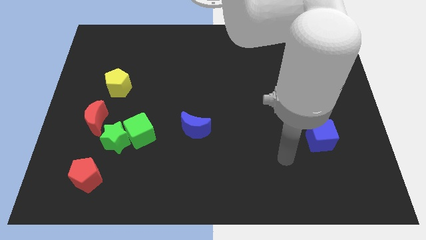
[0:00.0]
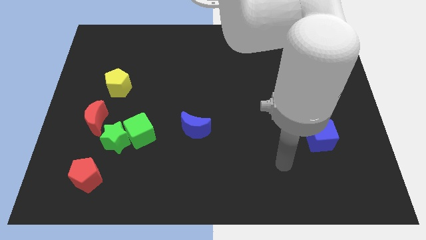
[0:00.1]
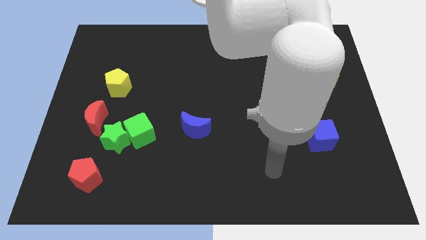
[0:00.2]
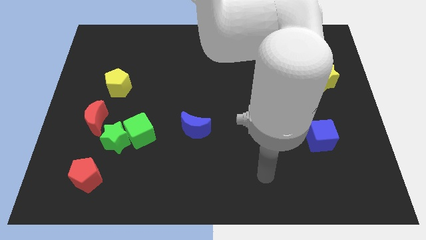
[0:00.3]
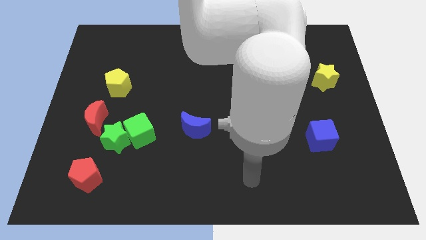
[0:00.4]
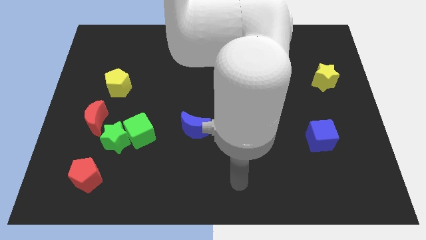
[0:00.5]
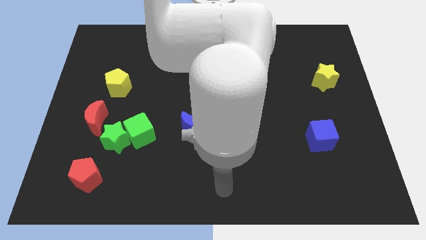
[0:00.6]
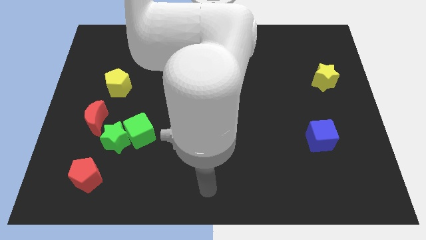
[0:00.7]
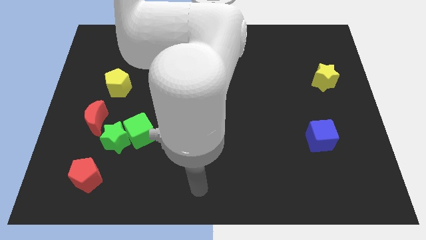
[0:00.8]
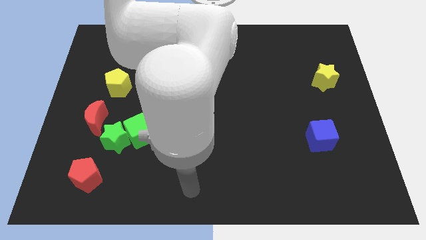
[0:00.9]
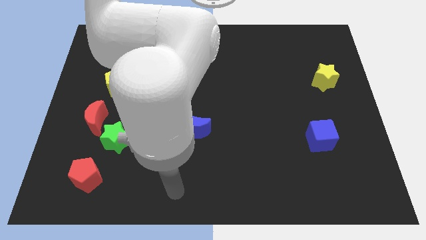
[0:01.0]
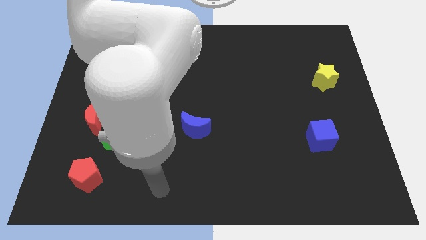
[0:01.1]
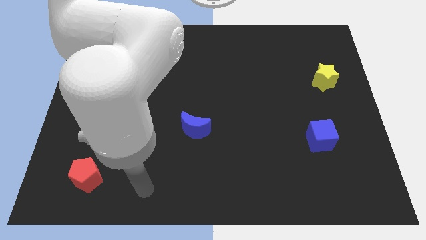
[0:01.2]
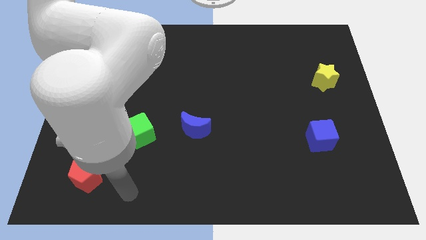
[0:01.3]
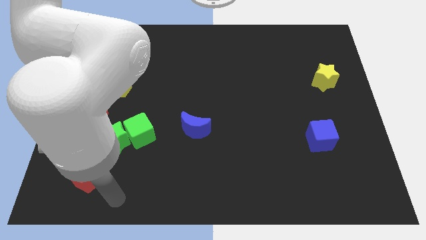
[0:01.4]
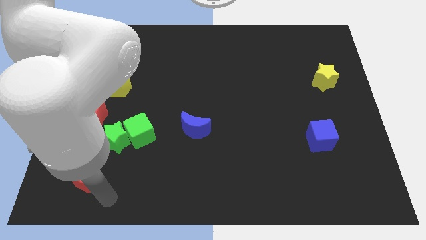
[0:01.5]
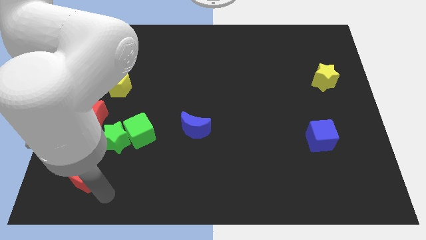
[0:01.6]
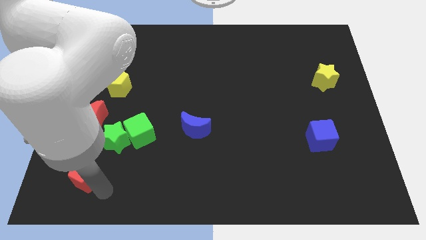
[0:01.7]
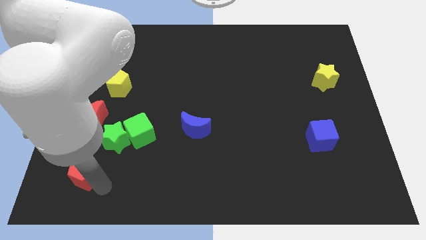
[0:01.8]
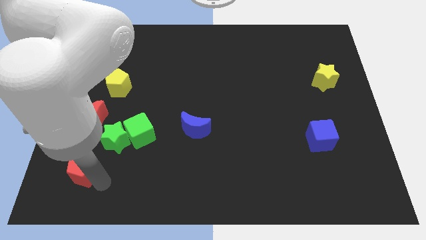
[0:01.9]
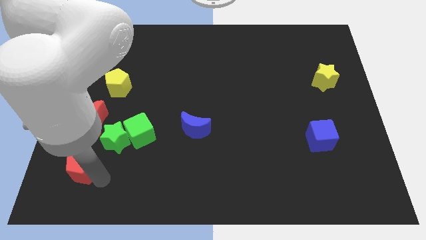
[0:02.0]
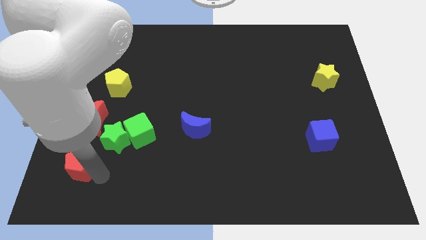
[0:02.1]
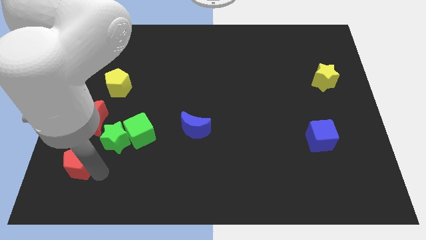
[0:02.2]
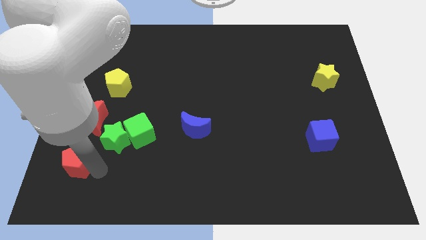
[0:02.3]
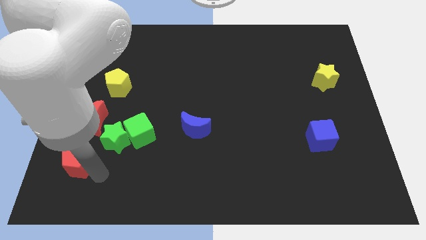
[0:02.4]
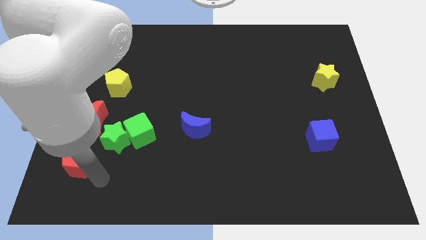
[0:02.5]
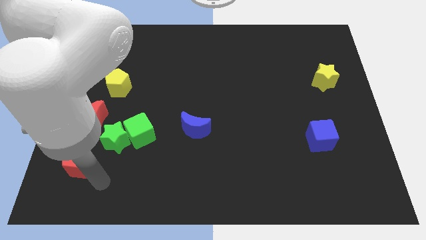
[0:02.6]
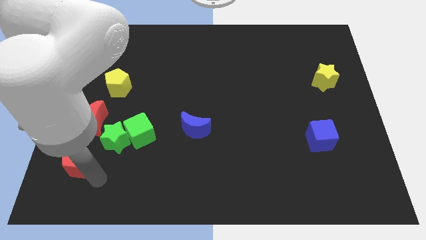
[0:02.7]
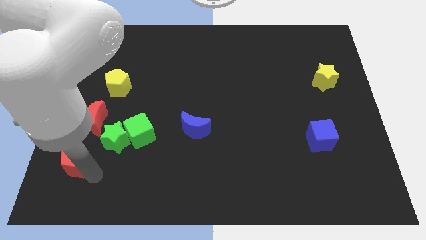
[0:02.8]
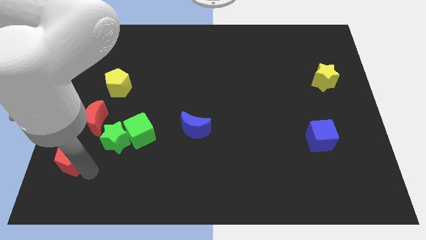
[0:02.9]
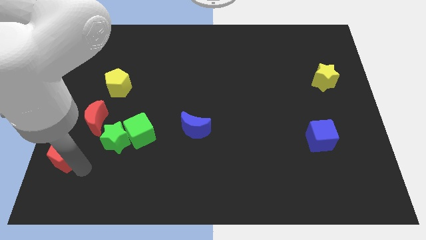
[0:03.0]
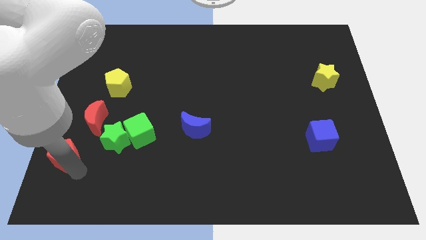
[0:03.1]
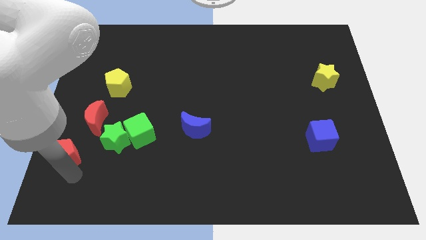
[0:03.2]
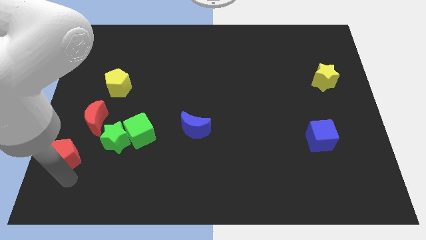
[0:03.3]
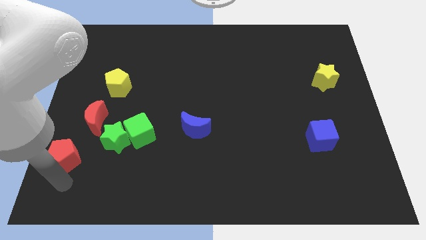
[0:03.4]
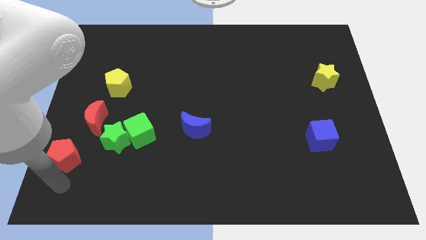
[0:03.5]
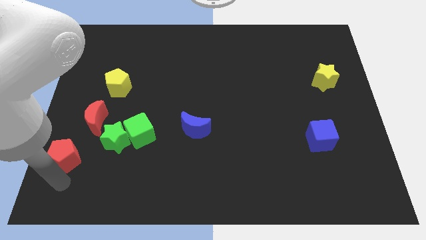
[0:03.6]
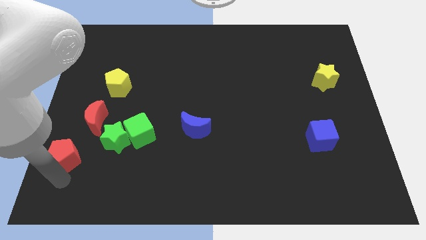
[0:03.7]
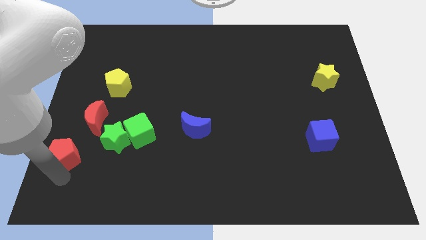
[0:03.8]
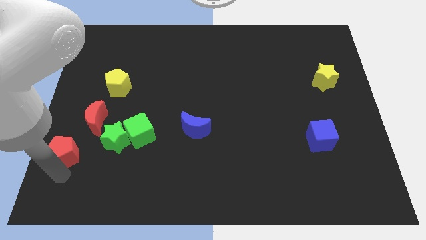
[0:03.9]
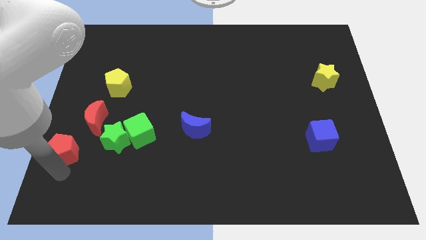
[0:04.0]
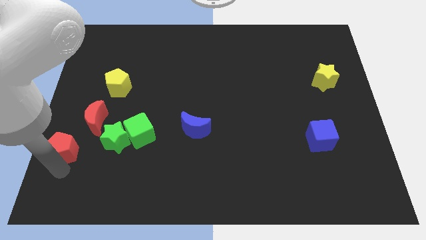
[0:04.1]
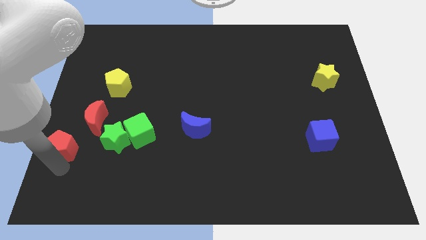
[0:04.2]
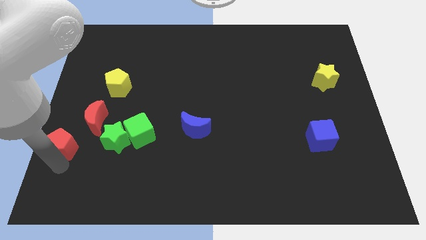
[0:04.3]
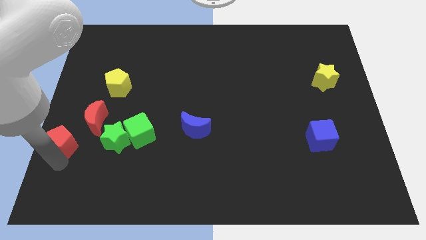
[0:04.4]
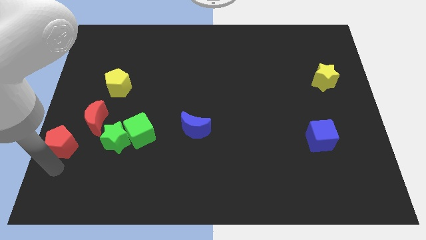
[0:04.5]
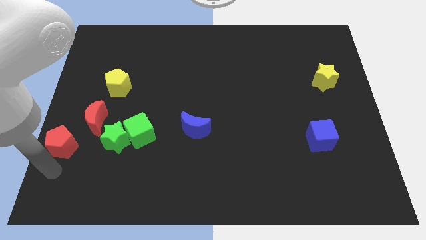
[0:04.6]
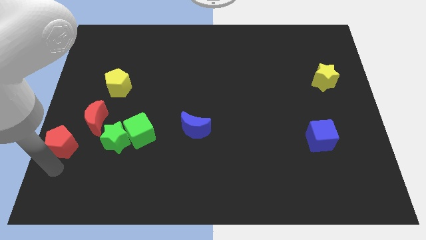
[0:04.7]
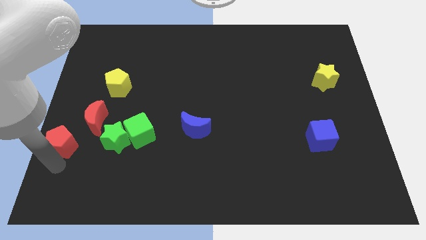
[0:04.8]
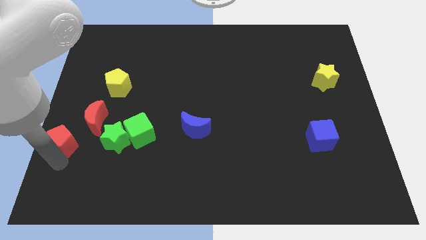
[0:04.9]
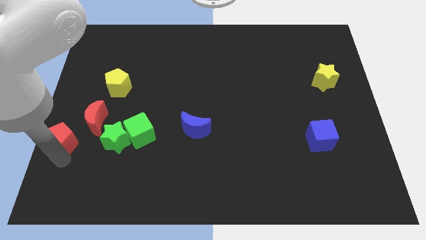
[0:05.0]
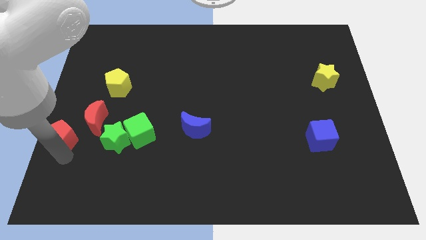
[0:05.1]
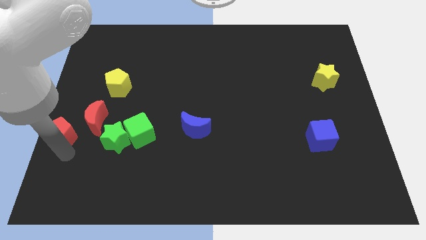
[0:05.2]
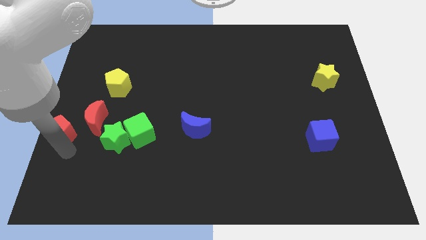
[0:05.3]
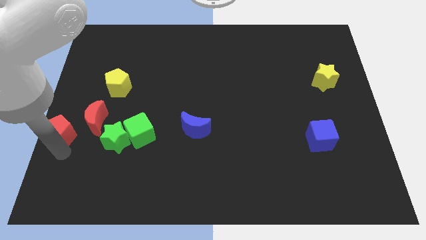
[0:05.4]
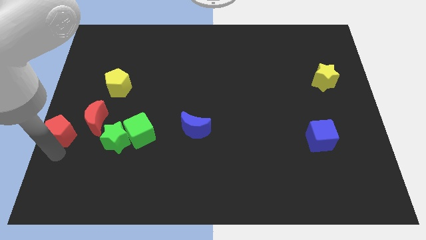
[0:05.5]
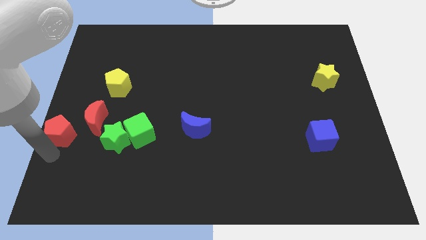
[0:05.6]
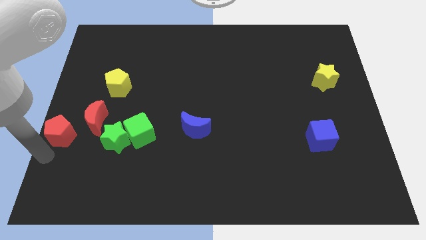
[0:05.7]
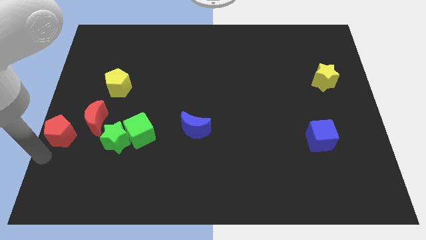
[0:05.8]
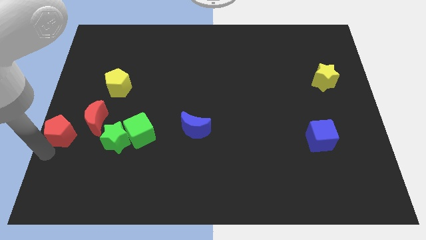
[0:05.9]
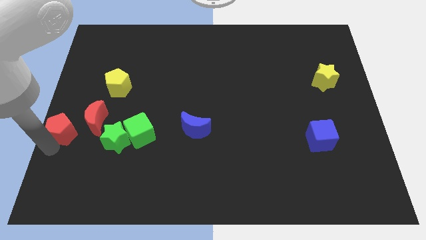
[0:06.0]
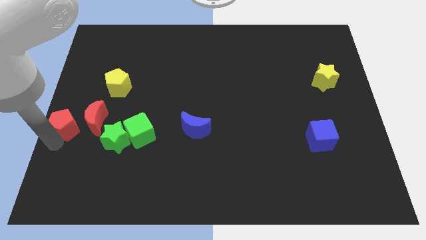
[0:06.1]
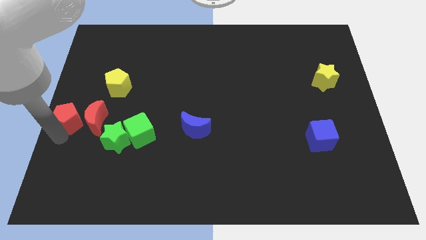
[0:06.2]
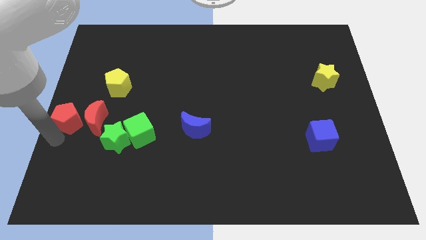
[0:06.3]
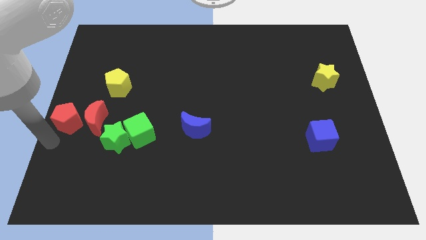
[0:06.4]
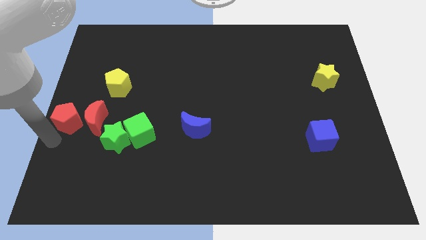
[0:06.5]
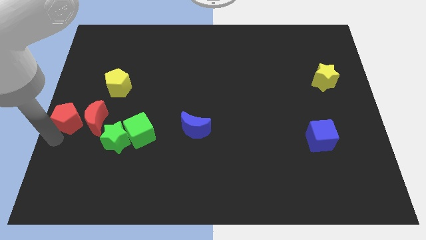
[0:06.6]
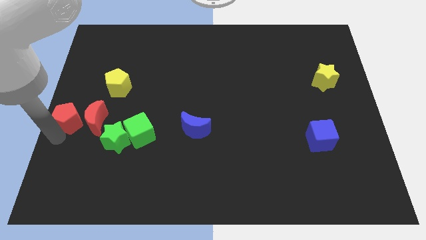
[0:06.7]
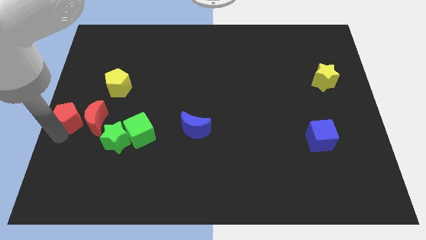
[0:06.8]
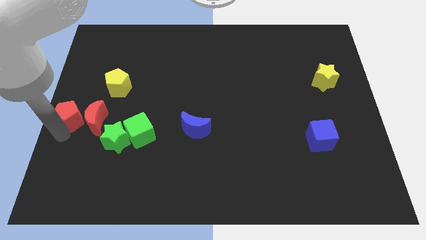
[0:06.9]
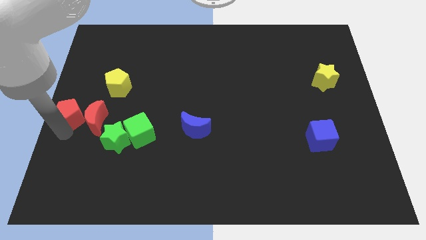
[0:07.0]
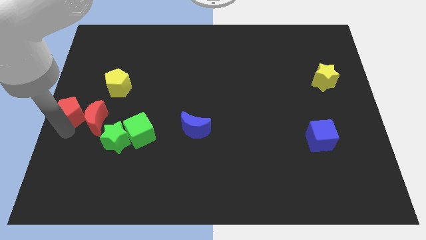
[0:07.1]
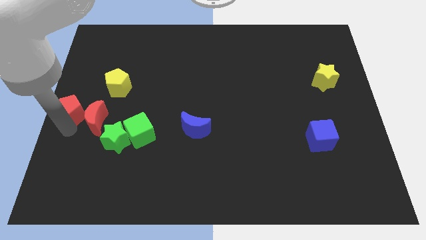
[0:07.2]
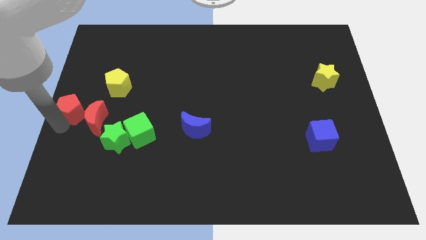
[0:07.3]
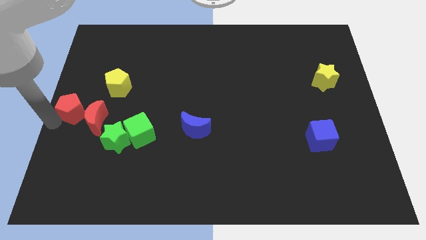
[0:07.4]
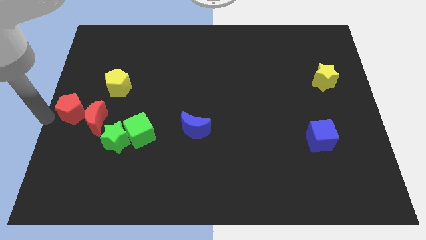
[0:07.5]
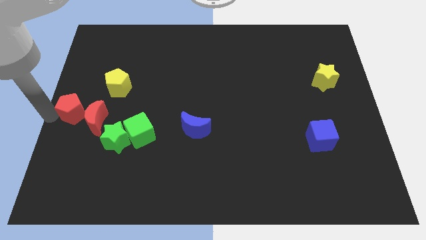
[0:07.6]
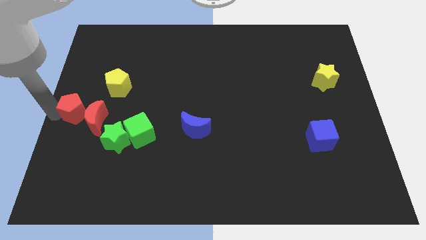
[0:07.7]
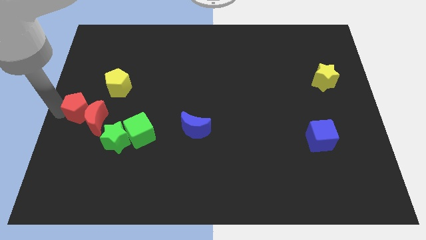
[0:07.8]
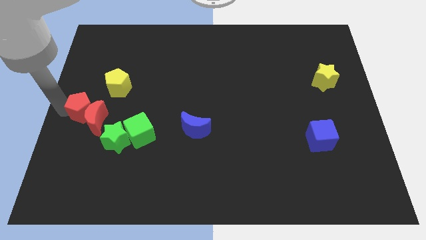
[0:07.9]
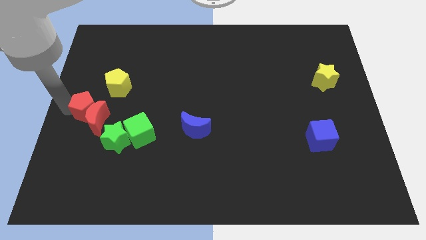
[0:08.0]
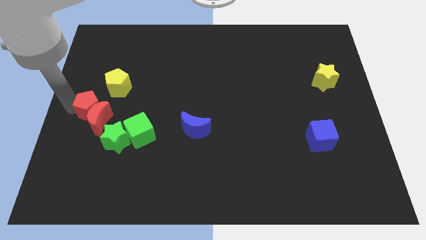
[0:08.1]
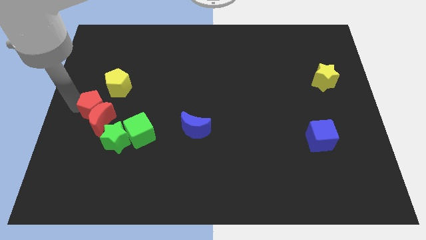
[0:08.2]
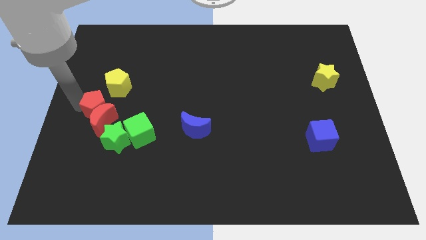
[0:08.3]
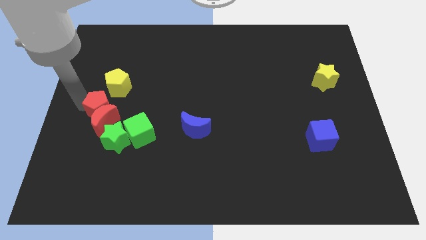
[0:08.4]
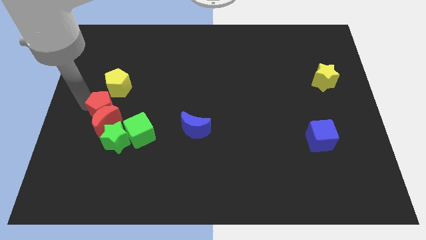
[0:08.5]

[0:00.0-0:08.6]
slide the red pentagon above the green star
